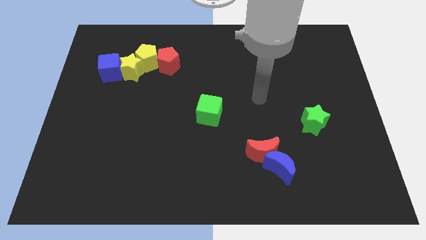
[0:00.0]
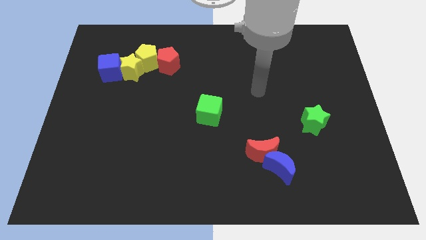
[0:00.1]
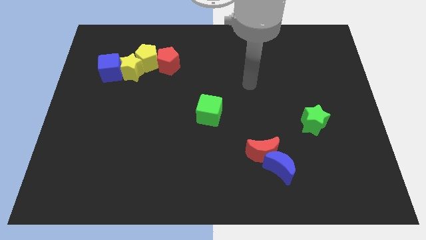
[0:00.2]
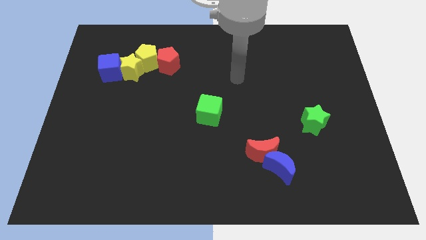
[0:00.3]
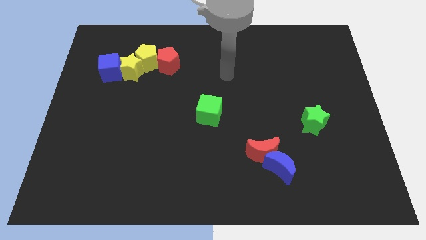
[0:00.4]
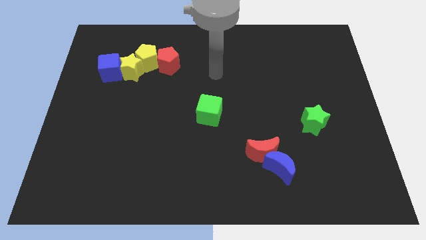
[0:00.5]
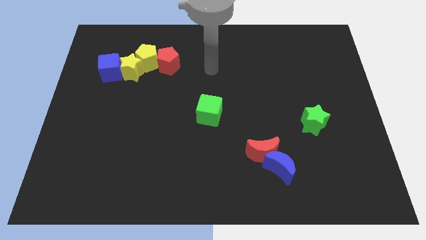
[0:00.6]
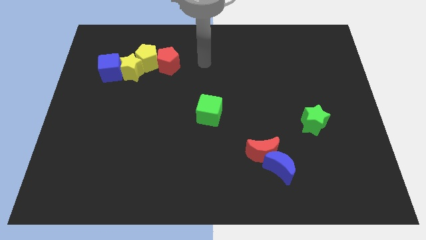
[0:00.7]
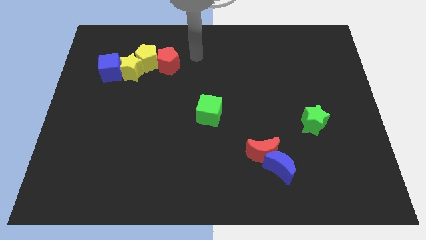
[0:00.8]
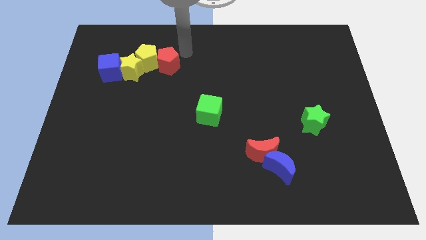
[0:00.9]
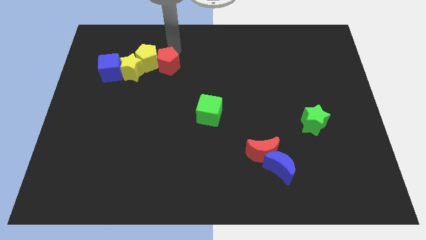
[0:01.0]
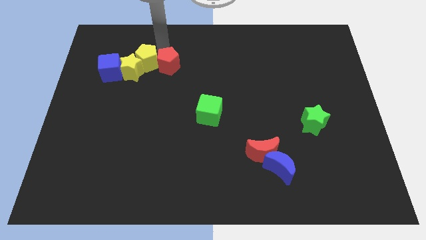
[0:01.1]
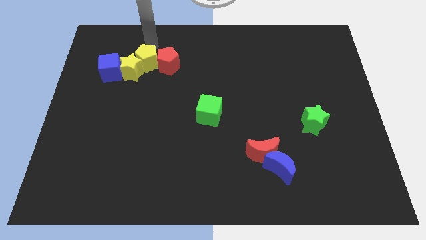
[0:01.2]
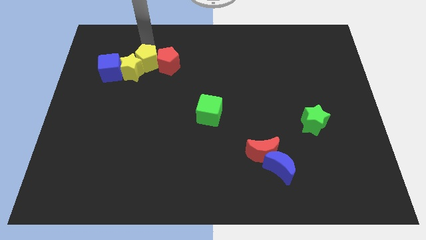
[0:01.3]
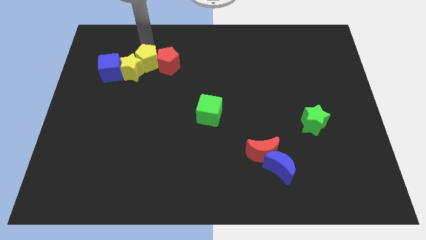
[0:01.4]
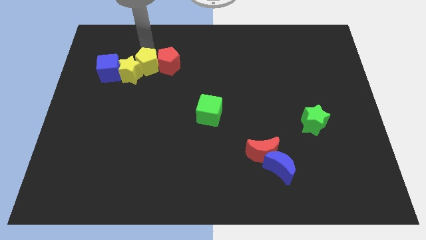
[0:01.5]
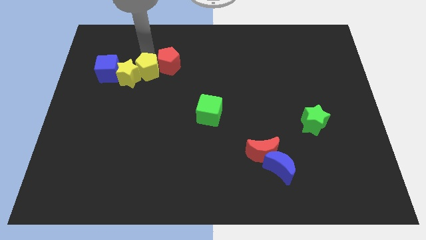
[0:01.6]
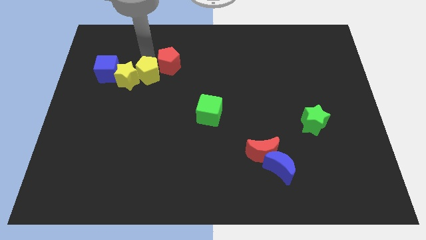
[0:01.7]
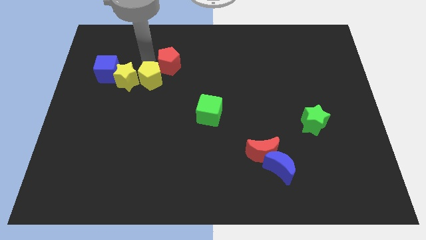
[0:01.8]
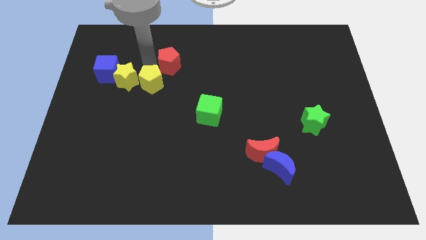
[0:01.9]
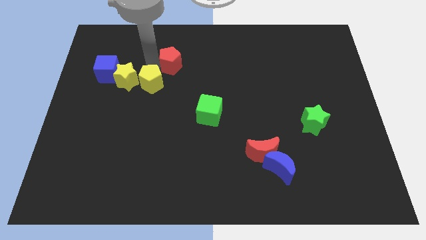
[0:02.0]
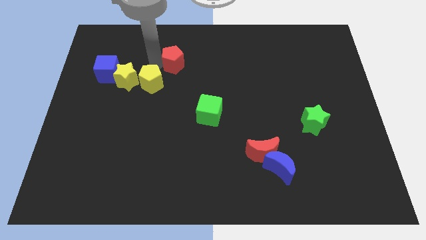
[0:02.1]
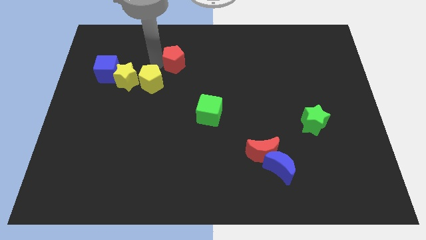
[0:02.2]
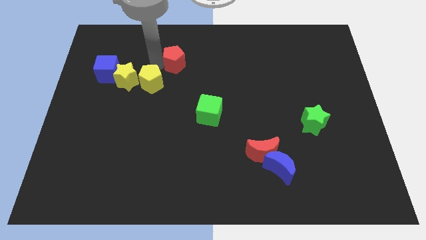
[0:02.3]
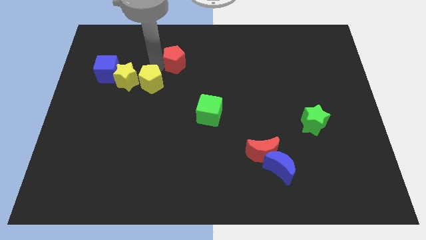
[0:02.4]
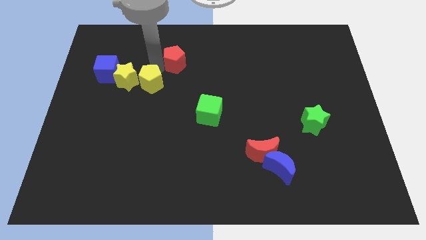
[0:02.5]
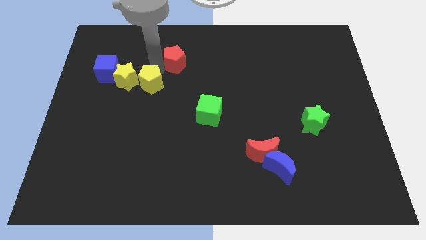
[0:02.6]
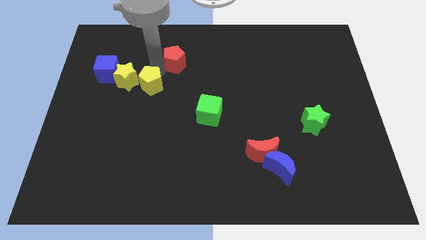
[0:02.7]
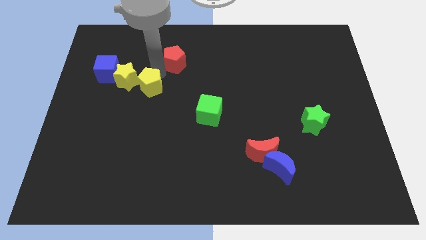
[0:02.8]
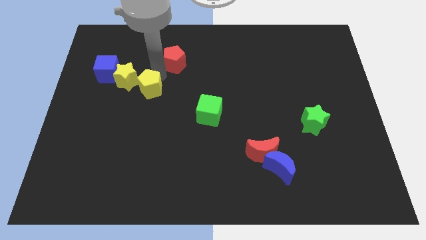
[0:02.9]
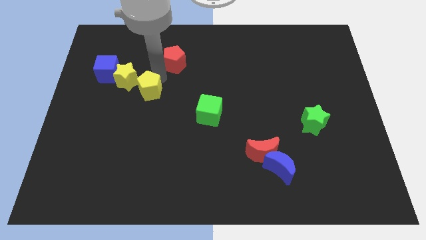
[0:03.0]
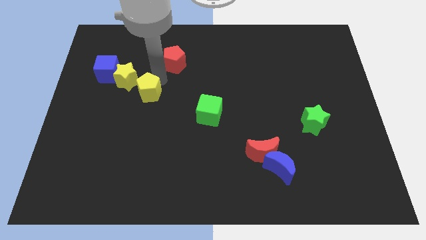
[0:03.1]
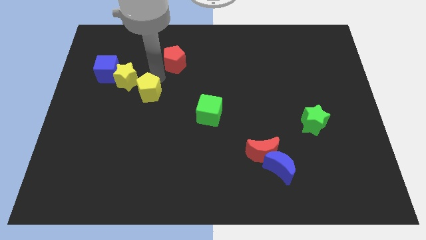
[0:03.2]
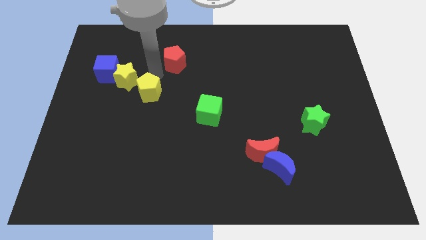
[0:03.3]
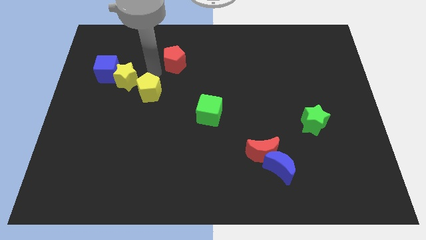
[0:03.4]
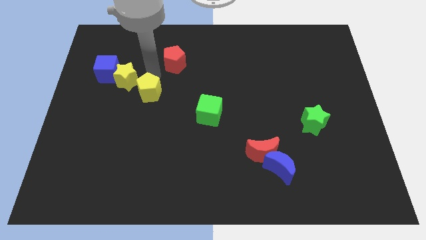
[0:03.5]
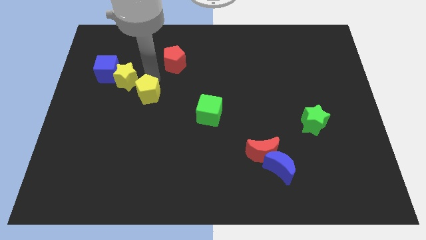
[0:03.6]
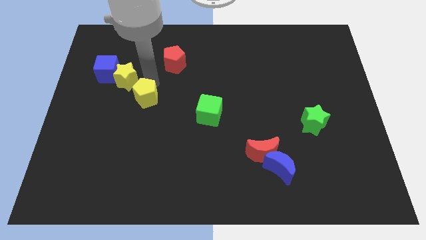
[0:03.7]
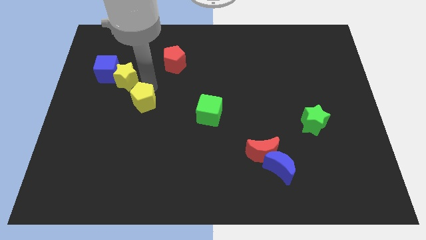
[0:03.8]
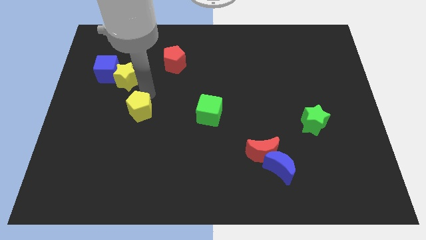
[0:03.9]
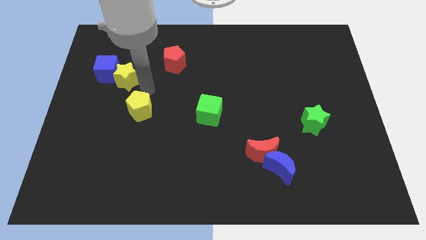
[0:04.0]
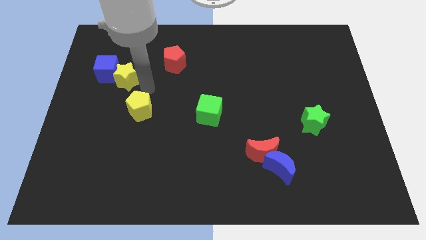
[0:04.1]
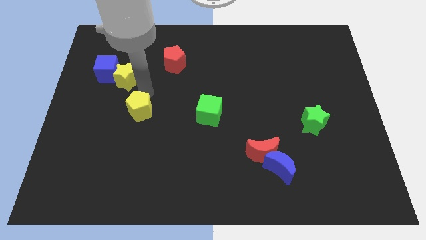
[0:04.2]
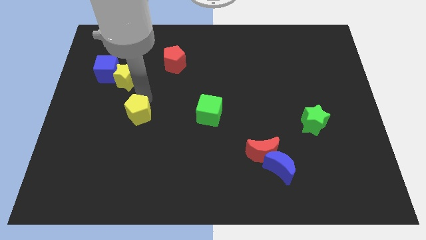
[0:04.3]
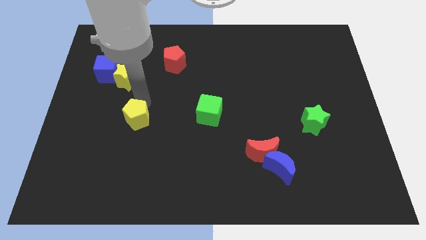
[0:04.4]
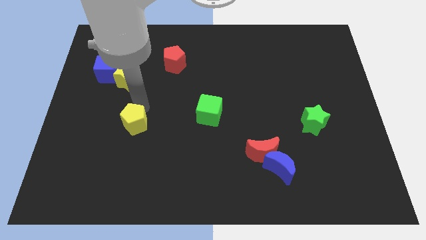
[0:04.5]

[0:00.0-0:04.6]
move the yellow pentagon down

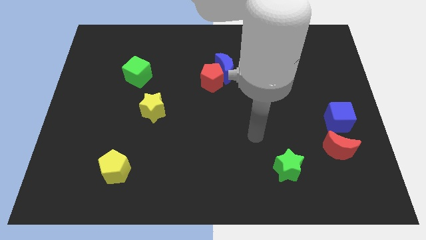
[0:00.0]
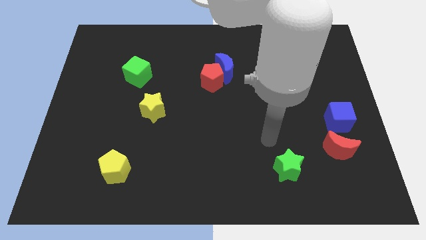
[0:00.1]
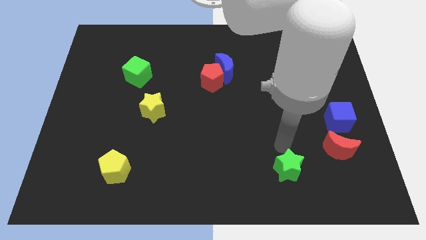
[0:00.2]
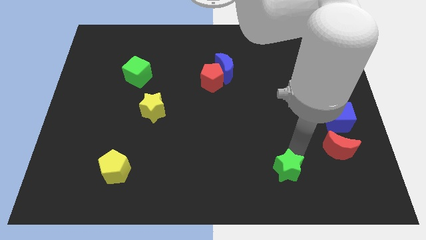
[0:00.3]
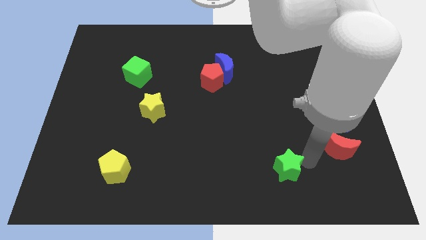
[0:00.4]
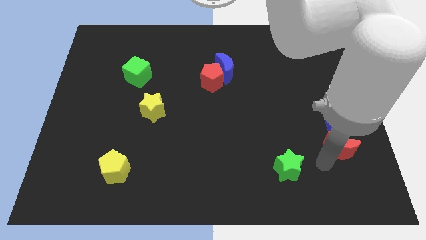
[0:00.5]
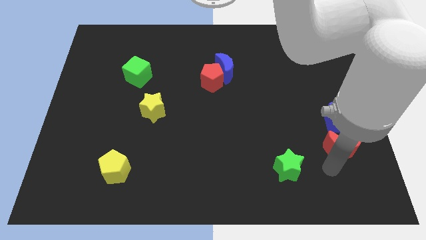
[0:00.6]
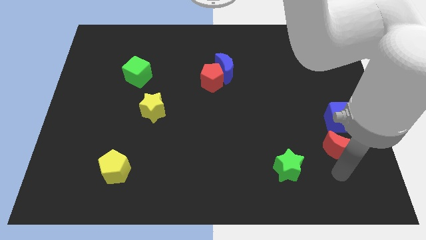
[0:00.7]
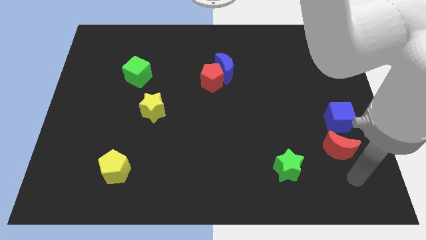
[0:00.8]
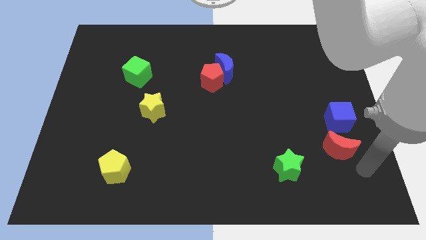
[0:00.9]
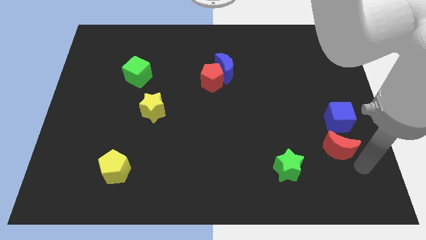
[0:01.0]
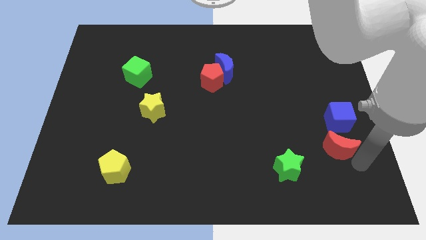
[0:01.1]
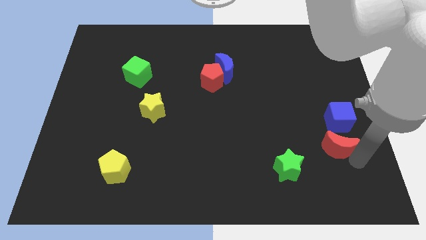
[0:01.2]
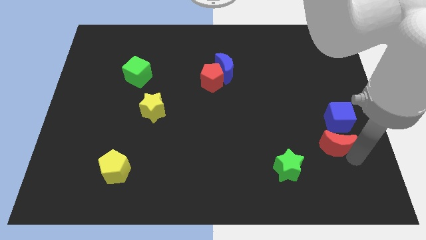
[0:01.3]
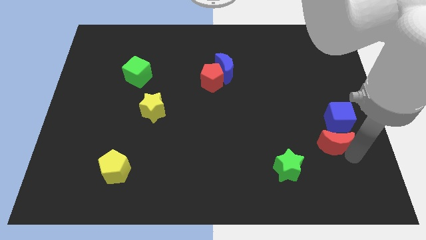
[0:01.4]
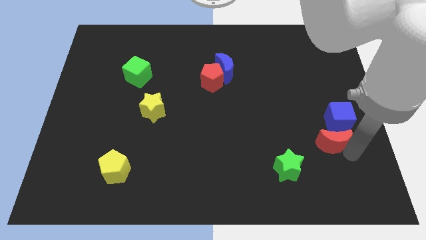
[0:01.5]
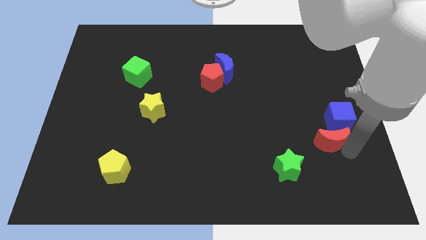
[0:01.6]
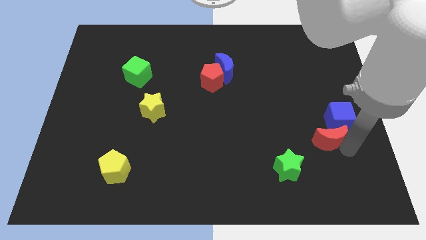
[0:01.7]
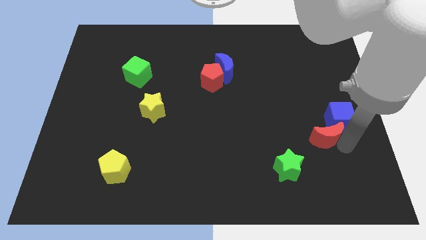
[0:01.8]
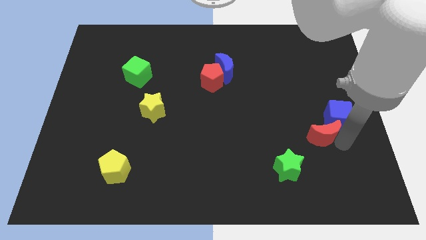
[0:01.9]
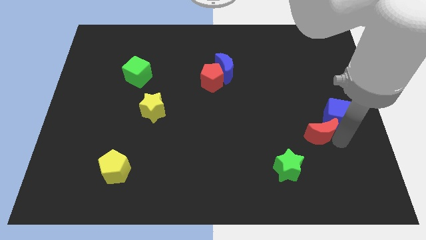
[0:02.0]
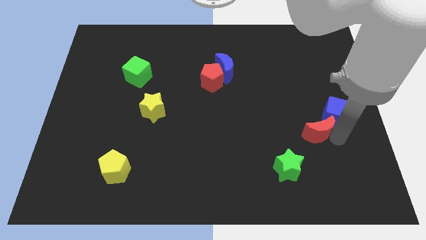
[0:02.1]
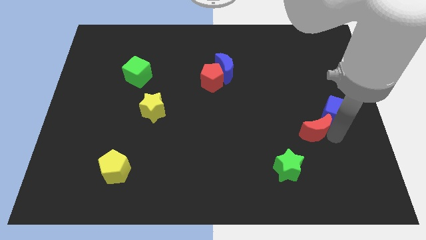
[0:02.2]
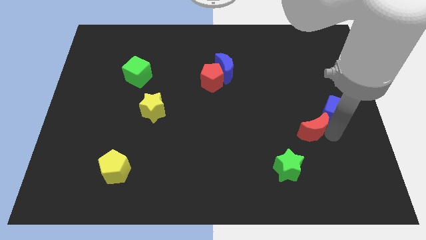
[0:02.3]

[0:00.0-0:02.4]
slightly move the red moon upwards and left diagonally

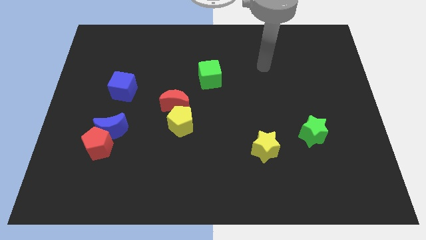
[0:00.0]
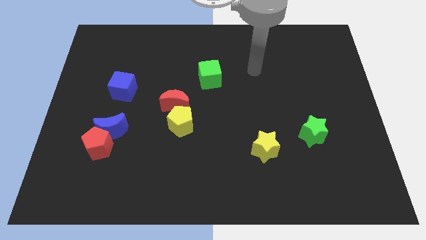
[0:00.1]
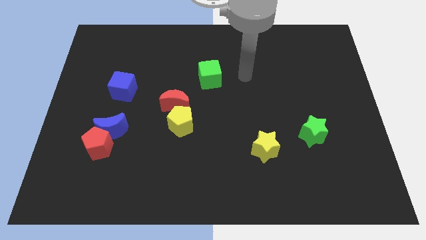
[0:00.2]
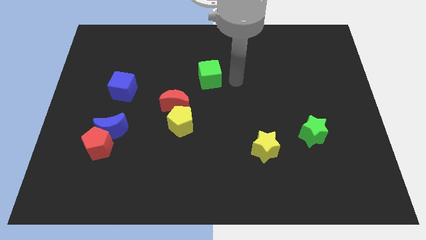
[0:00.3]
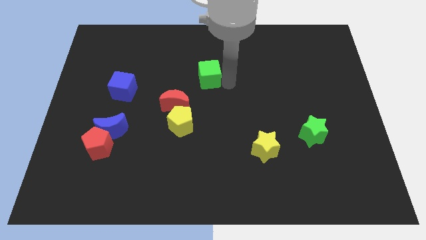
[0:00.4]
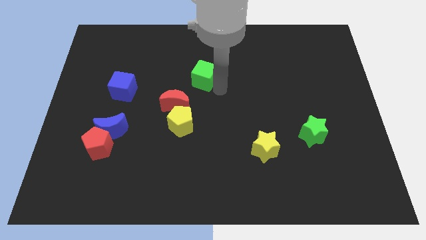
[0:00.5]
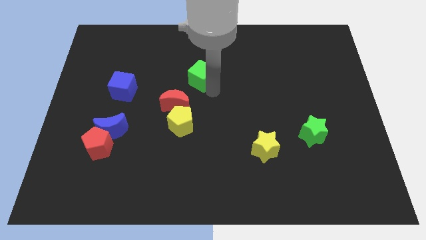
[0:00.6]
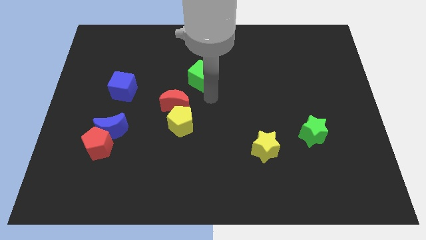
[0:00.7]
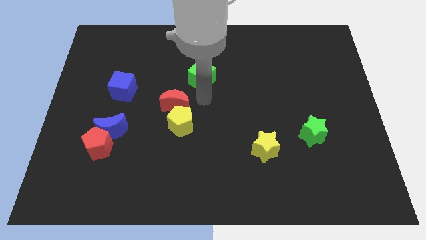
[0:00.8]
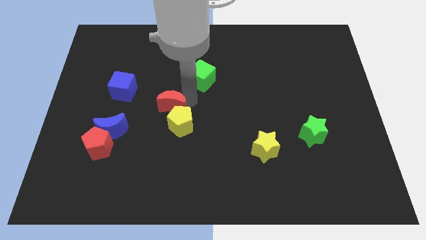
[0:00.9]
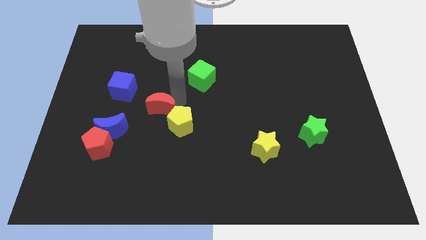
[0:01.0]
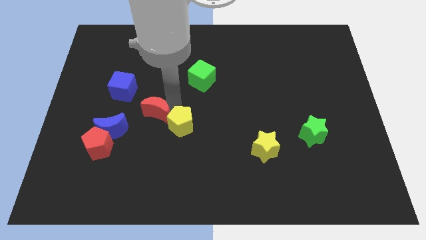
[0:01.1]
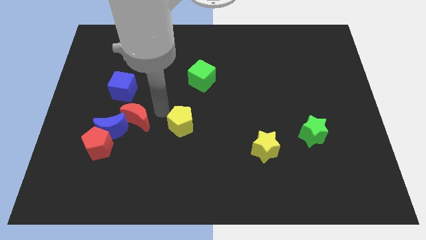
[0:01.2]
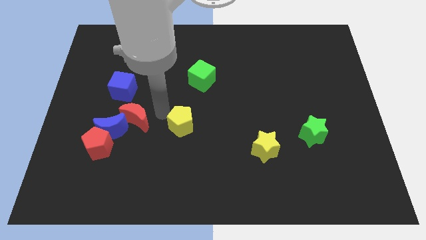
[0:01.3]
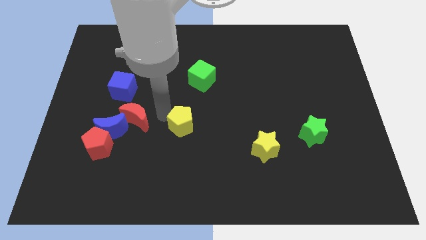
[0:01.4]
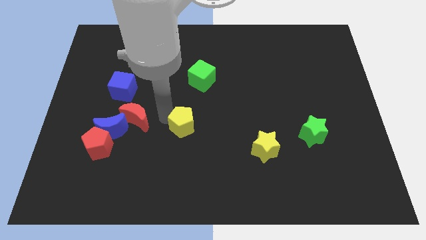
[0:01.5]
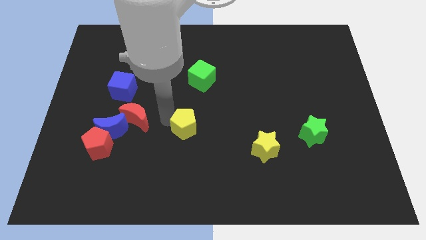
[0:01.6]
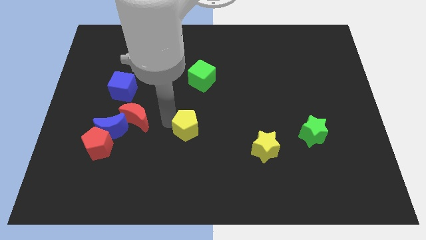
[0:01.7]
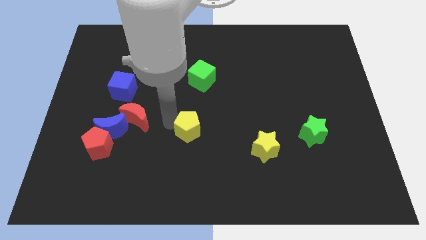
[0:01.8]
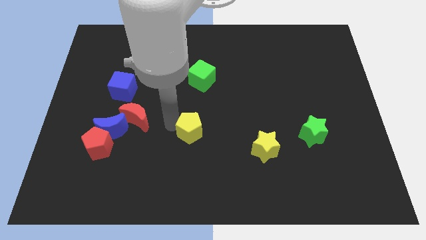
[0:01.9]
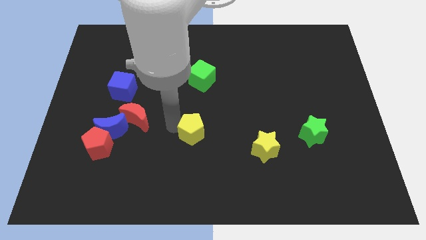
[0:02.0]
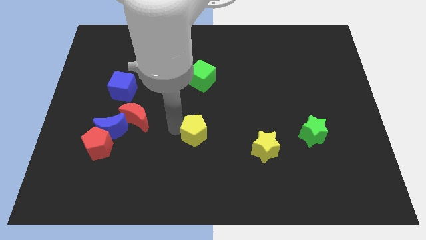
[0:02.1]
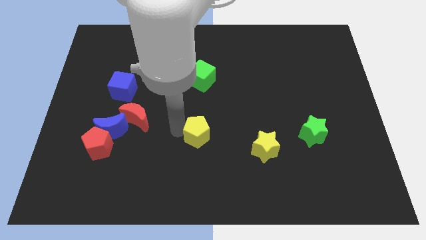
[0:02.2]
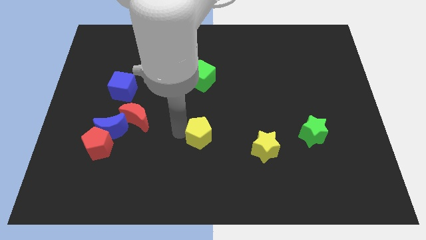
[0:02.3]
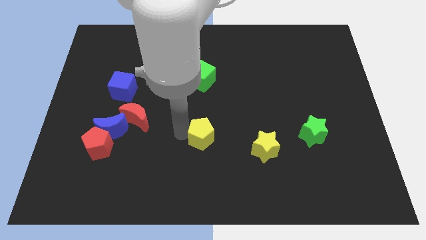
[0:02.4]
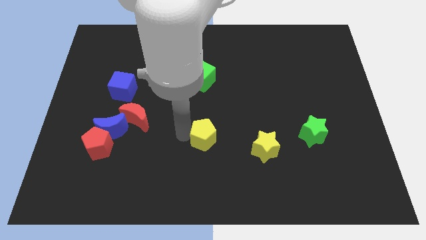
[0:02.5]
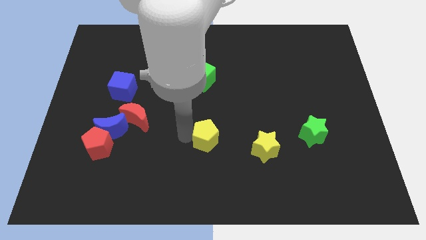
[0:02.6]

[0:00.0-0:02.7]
move the yellow pentagon slightly downwards and then to the right
